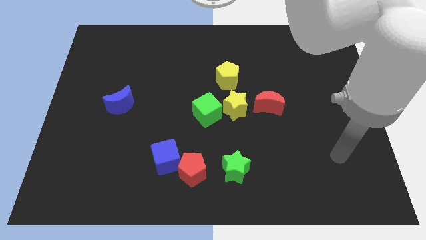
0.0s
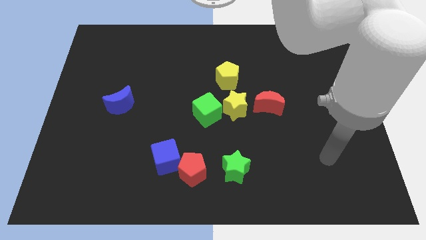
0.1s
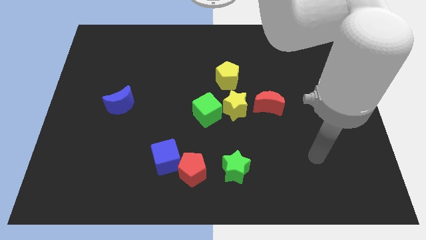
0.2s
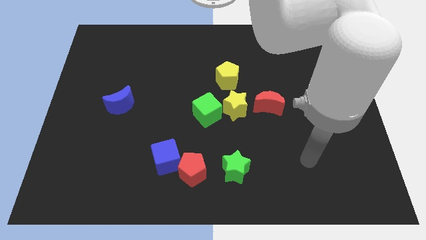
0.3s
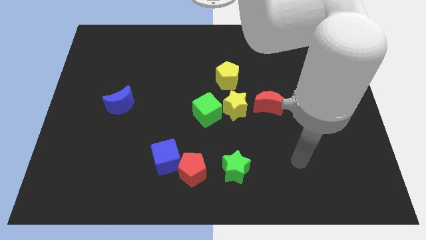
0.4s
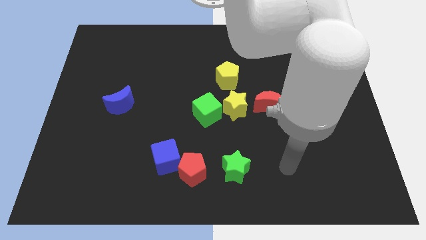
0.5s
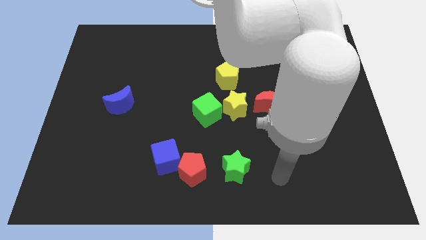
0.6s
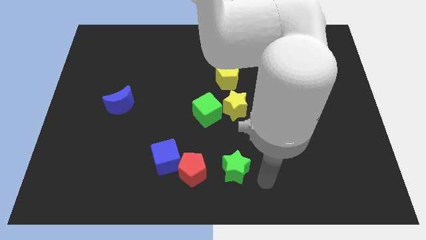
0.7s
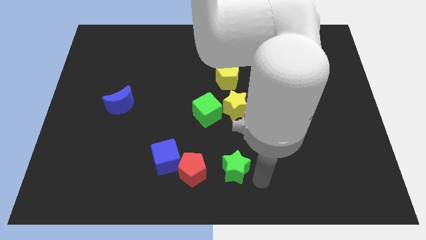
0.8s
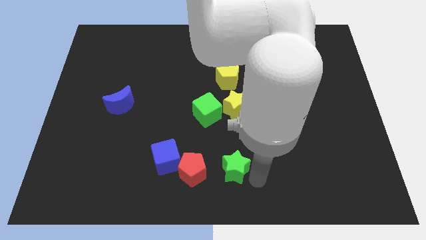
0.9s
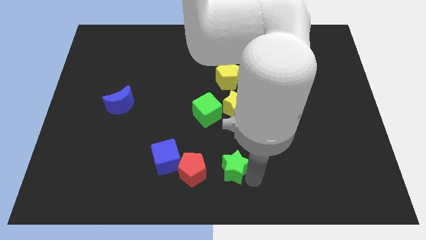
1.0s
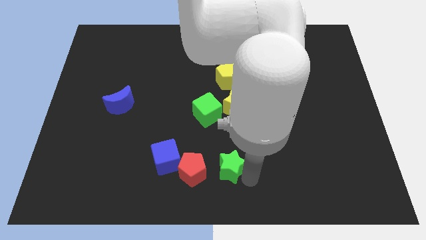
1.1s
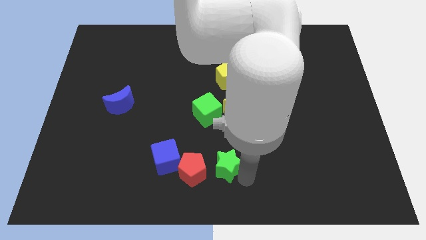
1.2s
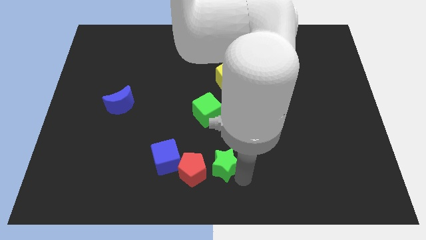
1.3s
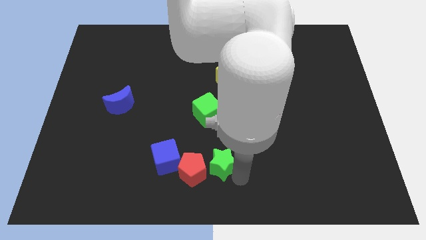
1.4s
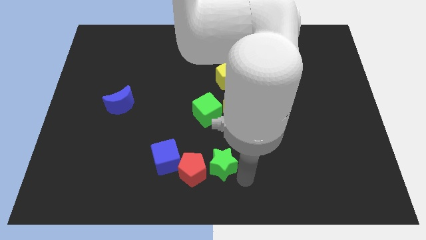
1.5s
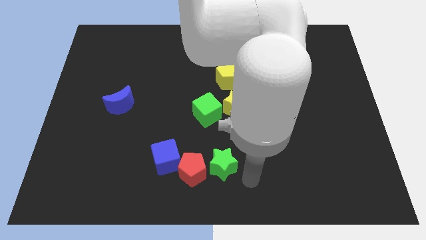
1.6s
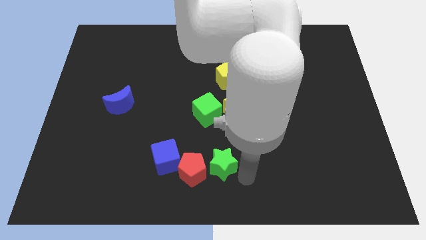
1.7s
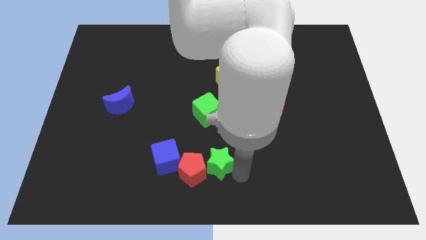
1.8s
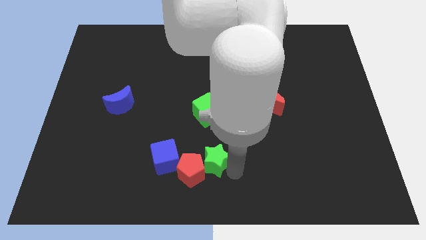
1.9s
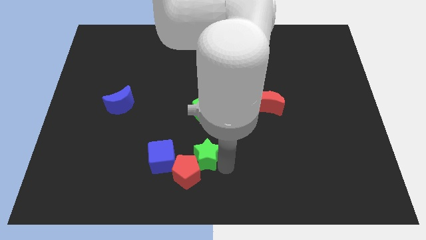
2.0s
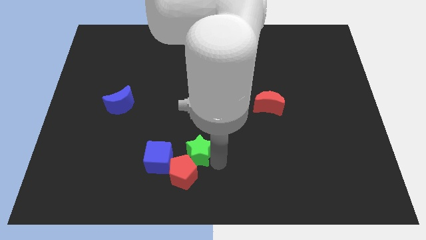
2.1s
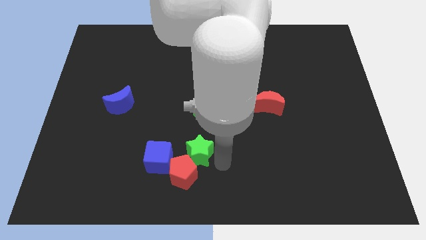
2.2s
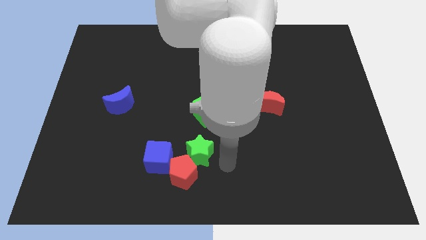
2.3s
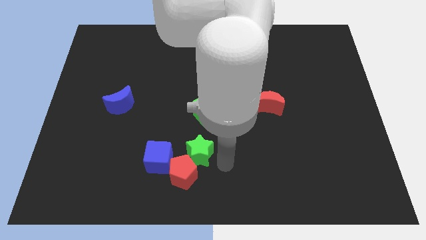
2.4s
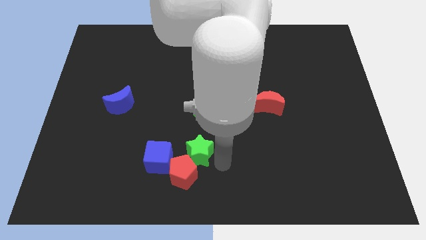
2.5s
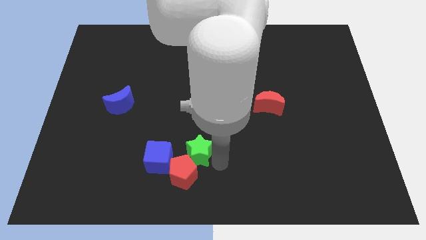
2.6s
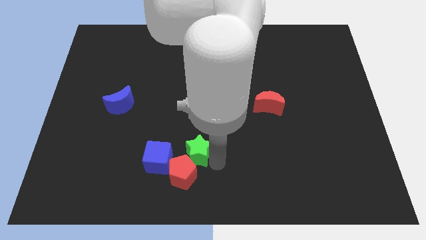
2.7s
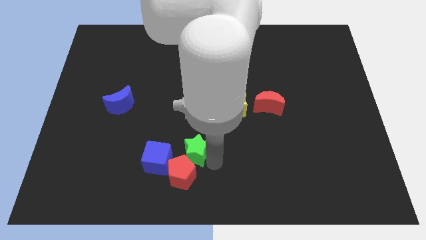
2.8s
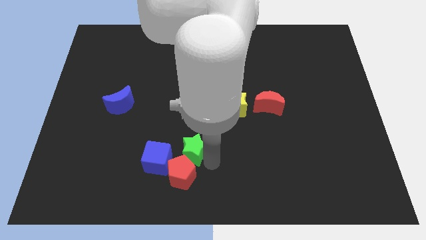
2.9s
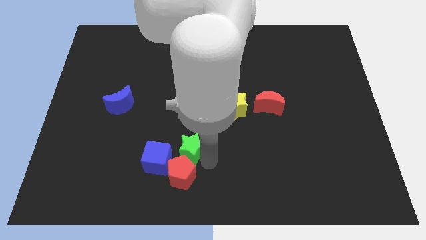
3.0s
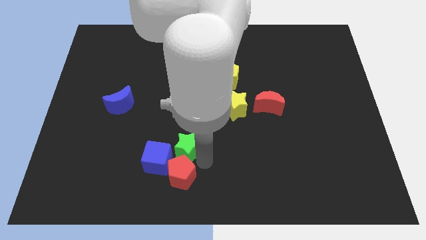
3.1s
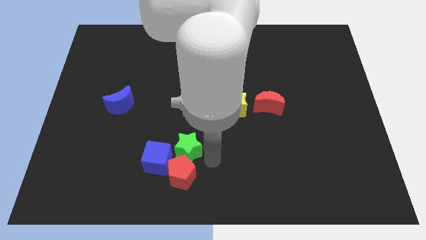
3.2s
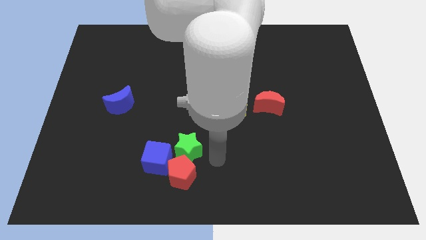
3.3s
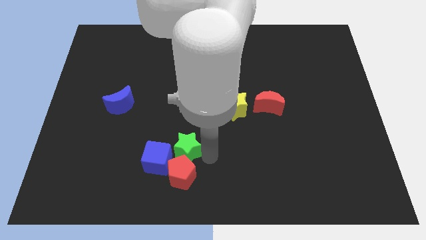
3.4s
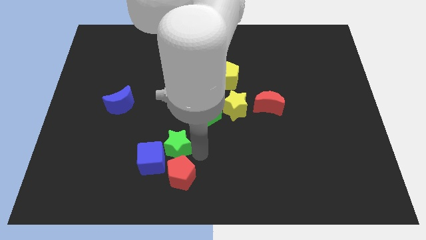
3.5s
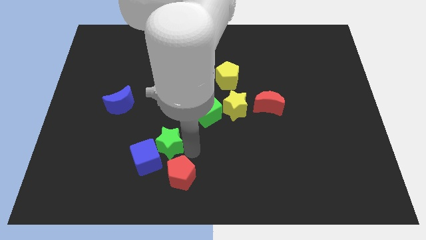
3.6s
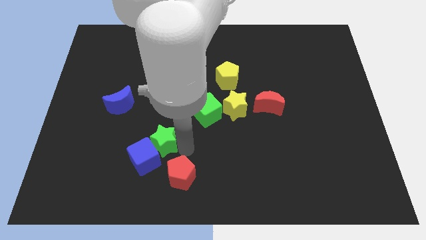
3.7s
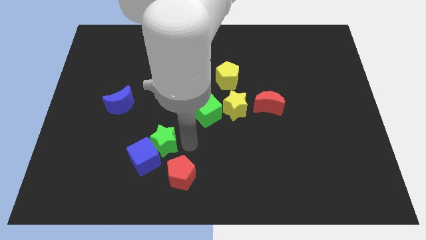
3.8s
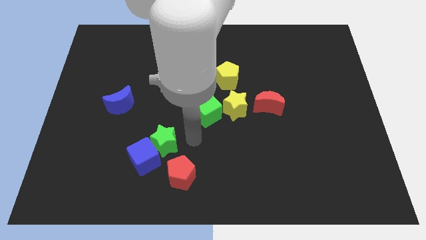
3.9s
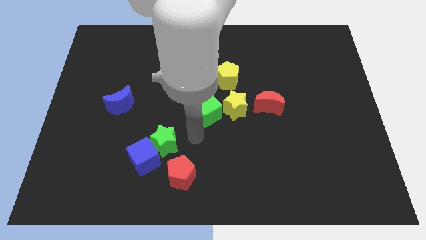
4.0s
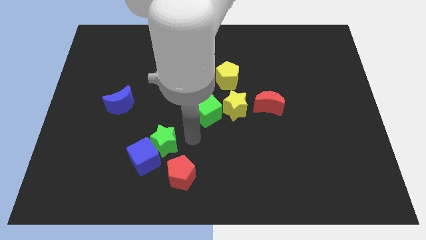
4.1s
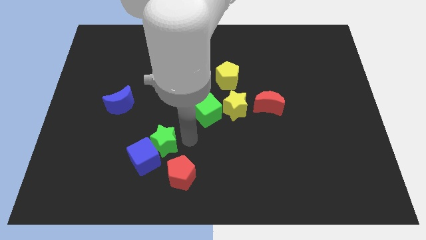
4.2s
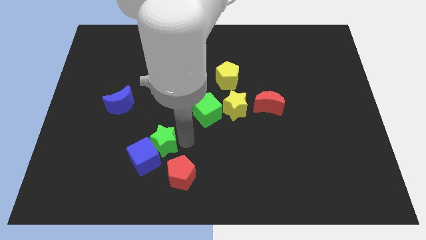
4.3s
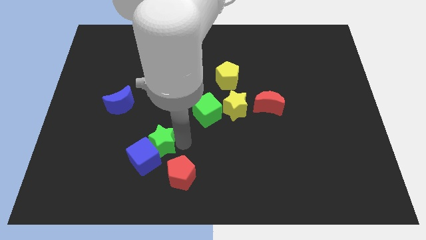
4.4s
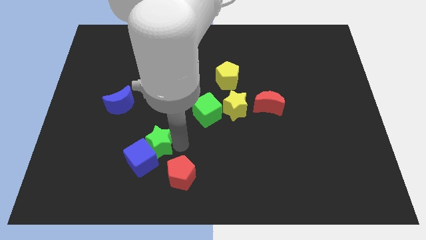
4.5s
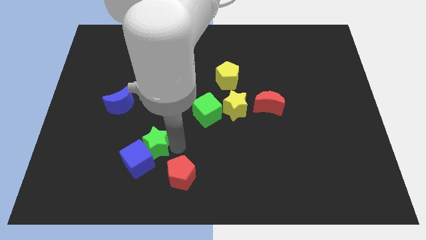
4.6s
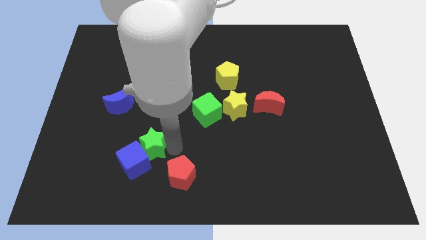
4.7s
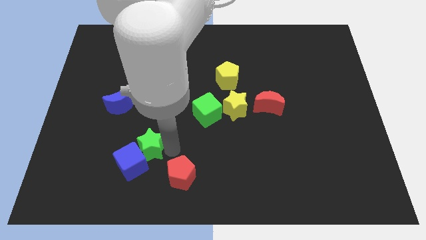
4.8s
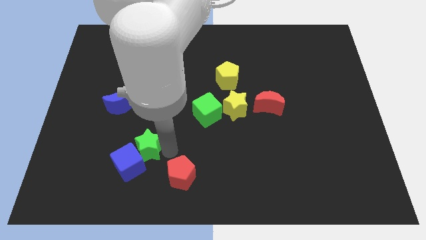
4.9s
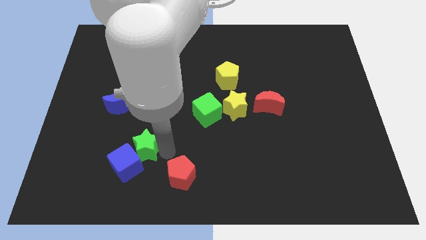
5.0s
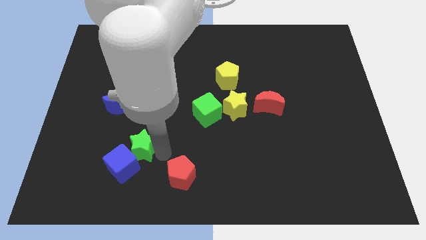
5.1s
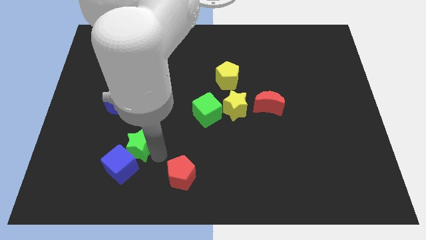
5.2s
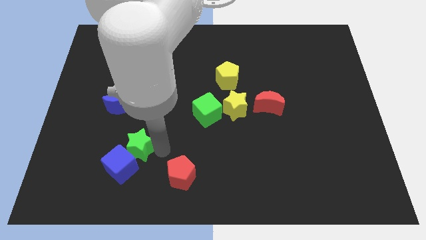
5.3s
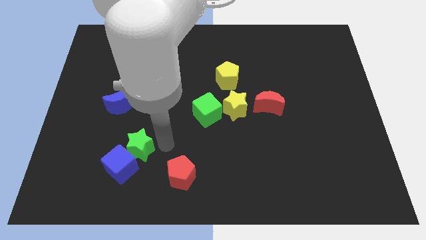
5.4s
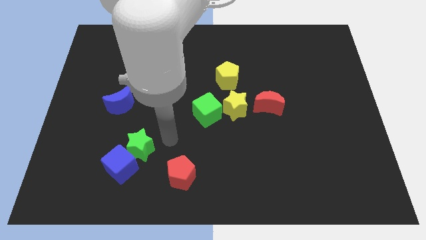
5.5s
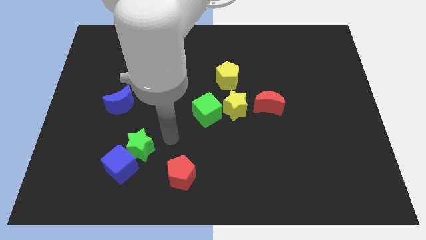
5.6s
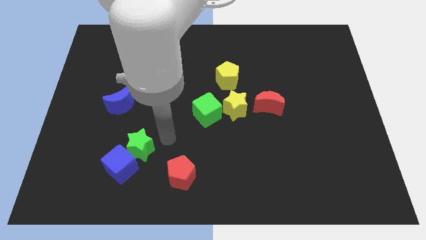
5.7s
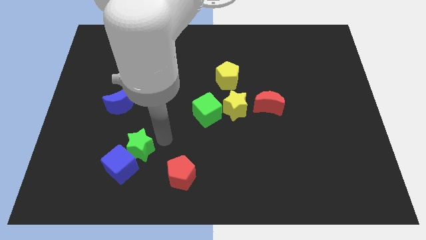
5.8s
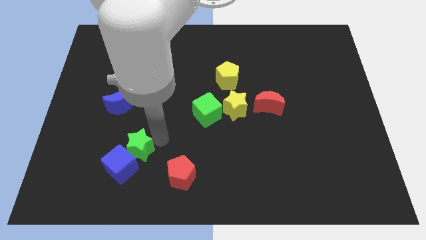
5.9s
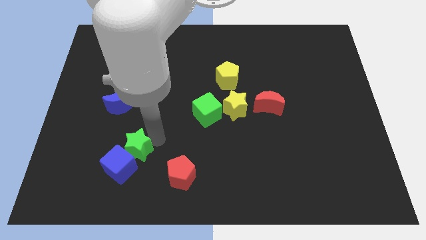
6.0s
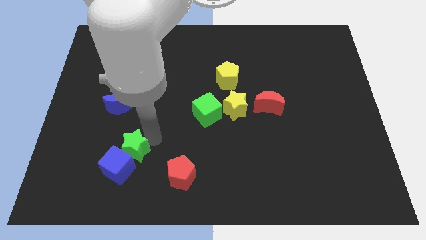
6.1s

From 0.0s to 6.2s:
move the green star to the left

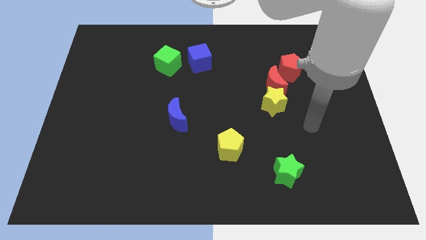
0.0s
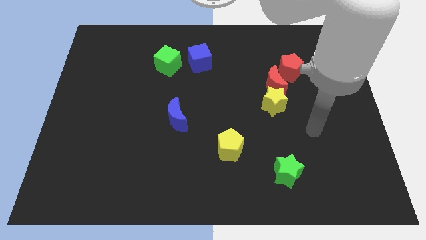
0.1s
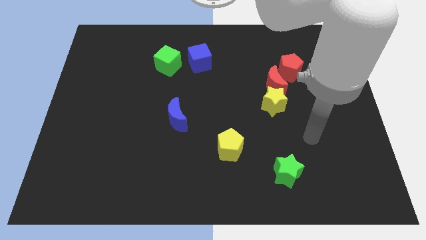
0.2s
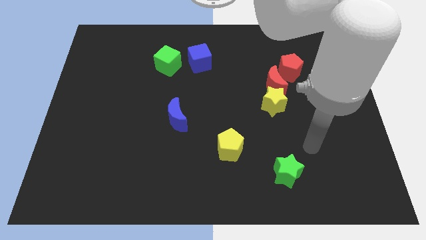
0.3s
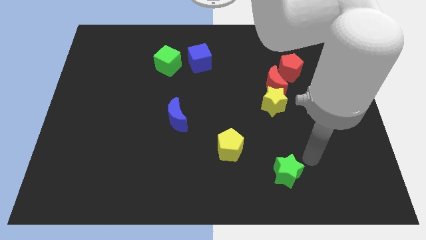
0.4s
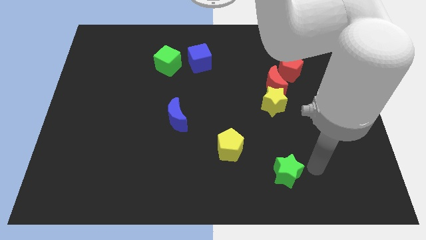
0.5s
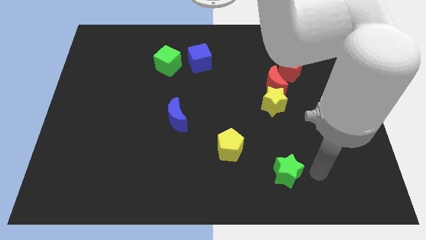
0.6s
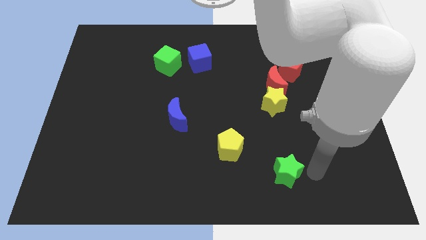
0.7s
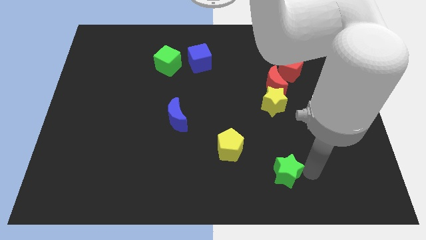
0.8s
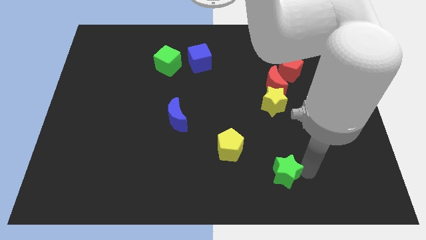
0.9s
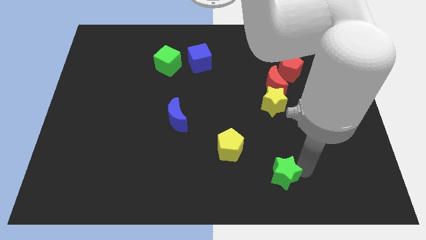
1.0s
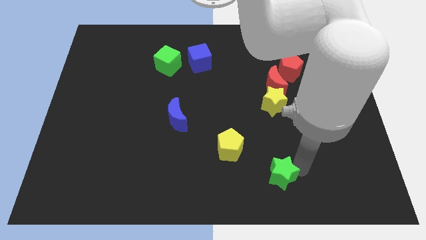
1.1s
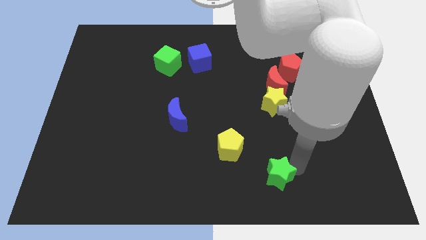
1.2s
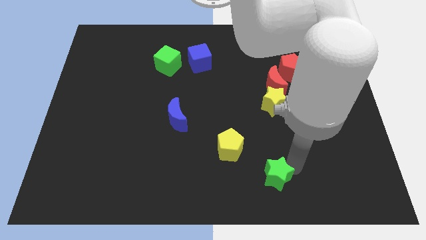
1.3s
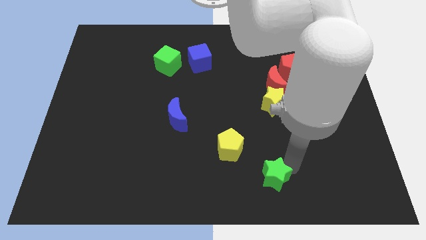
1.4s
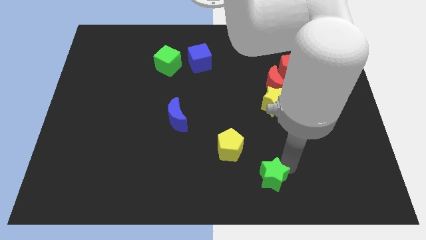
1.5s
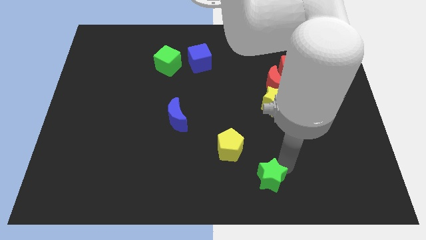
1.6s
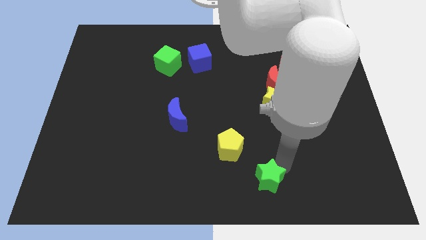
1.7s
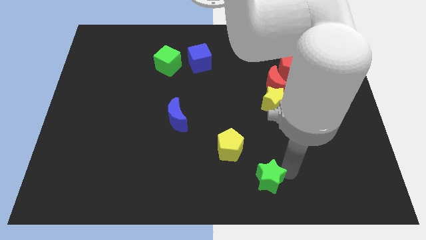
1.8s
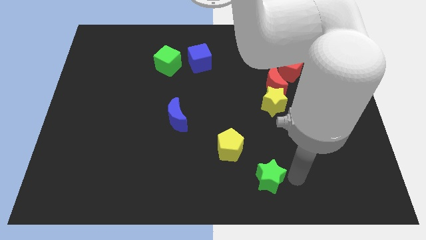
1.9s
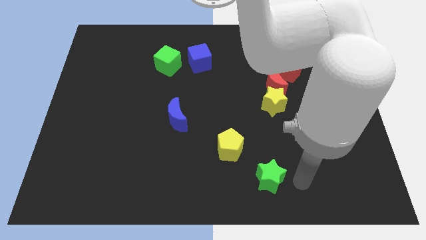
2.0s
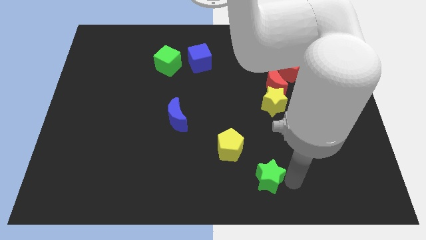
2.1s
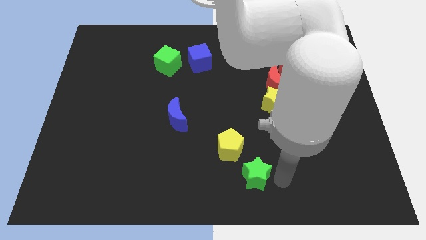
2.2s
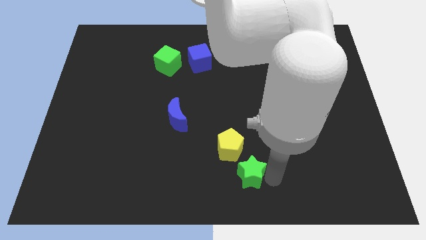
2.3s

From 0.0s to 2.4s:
slightly push the green star to the left
